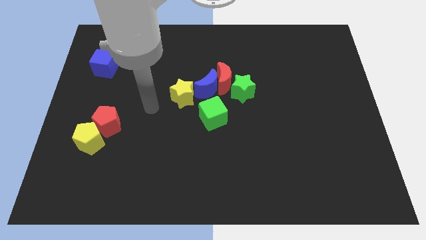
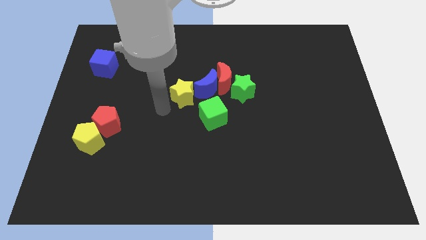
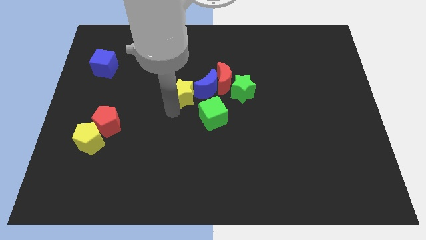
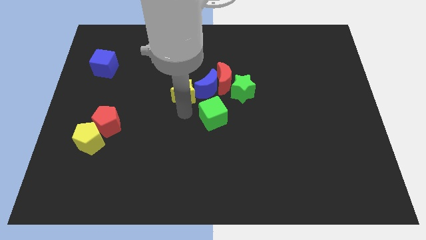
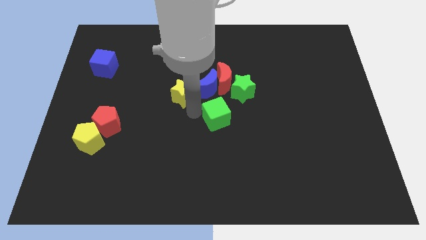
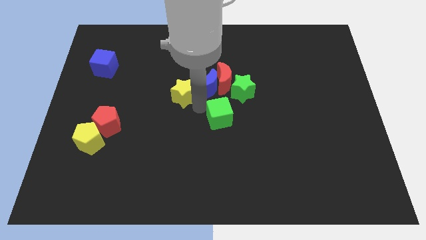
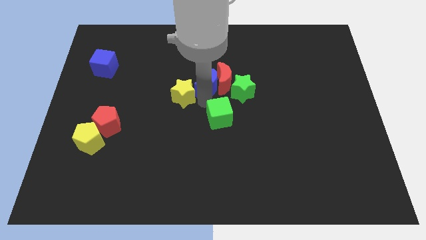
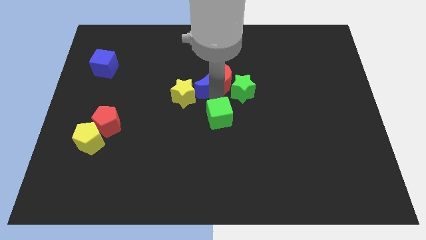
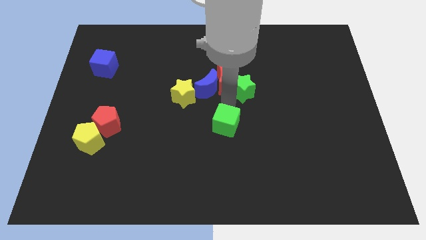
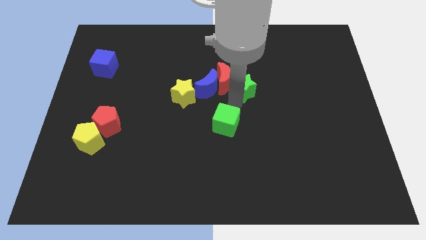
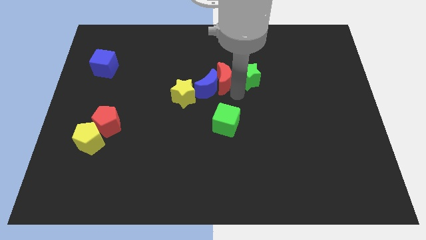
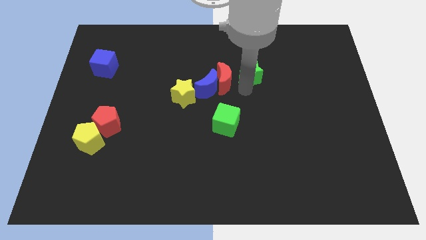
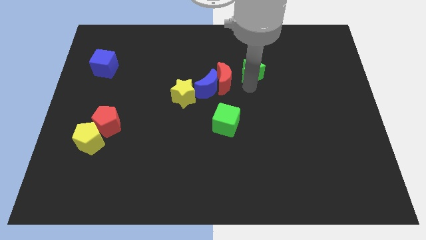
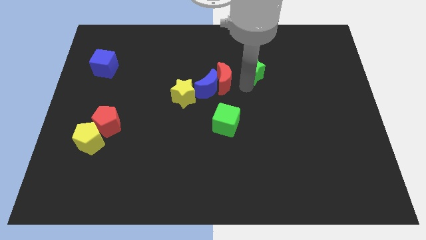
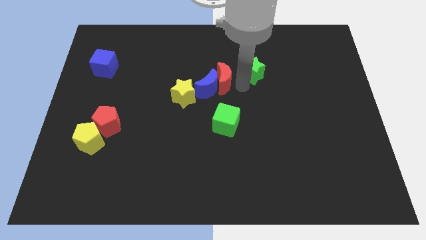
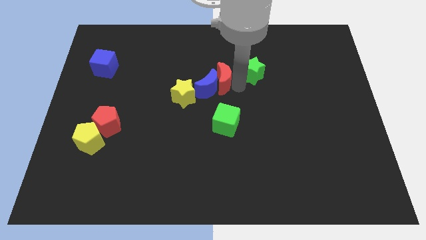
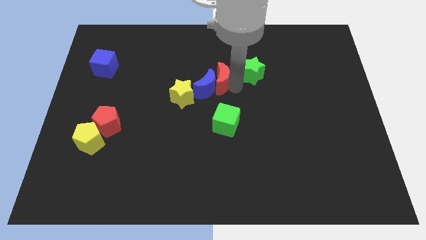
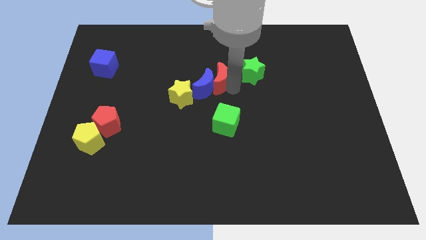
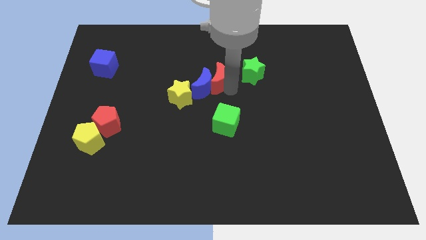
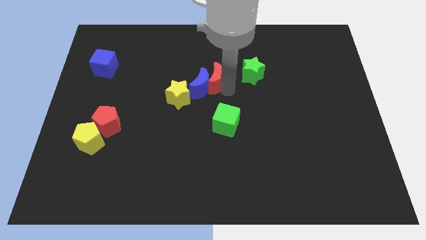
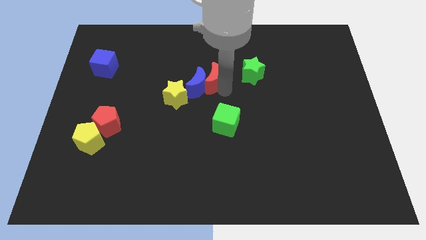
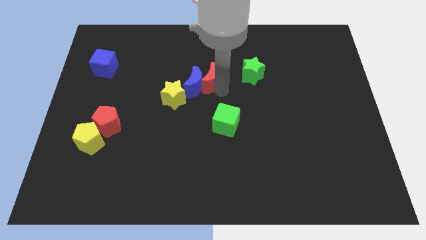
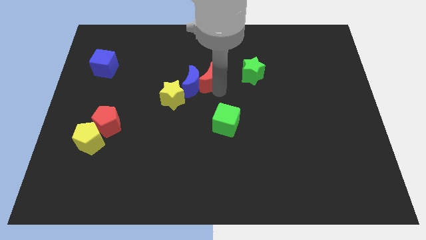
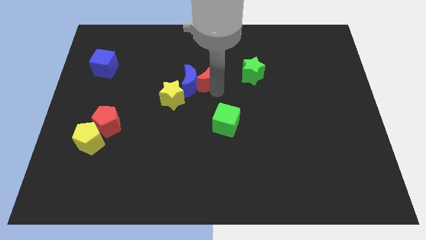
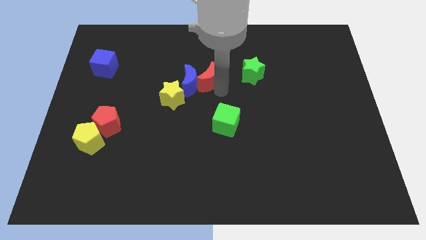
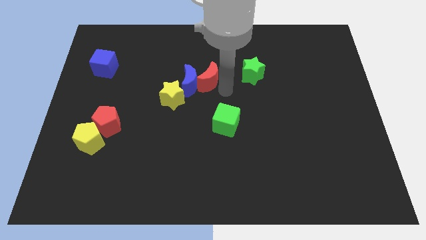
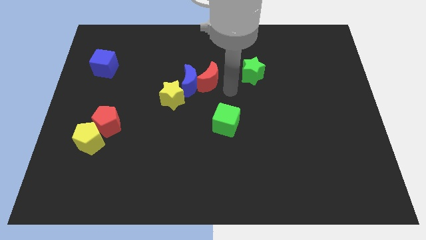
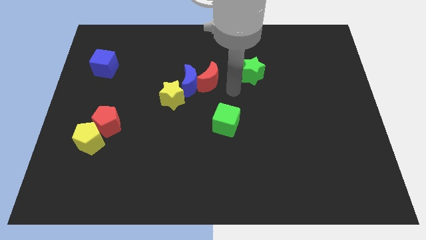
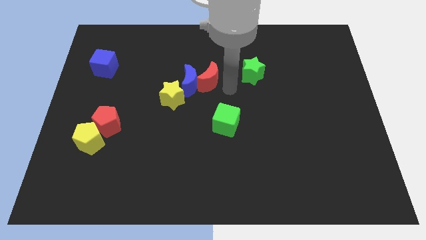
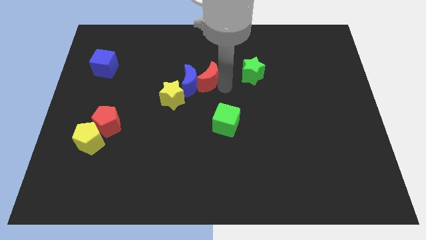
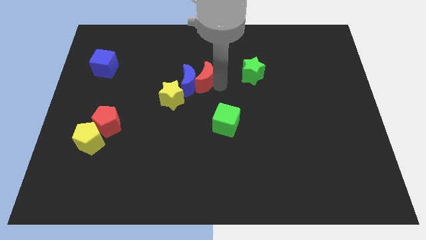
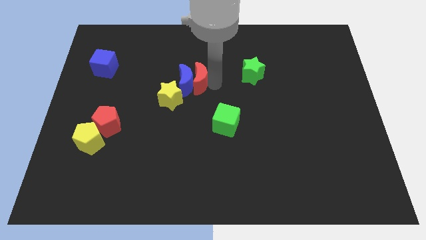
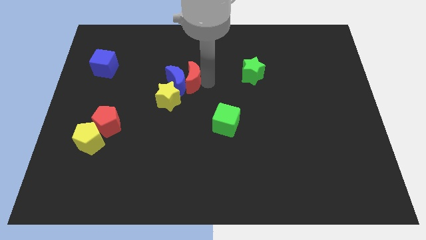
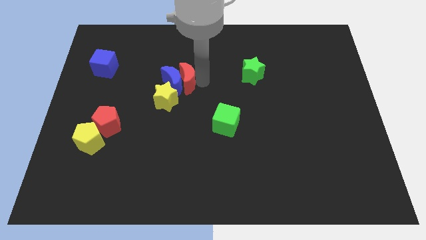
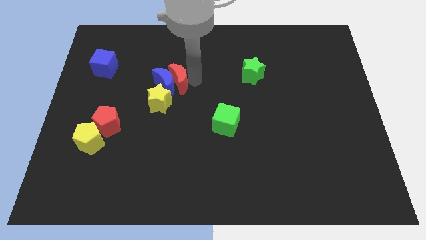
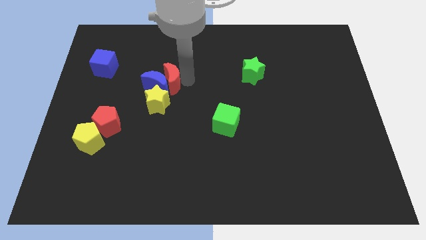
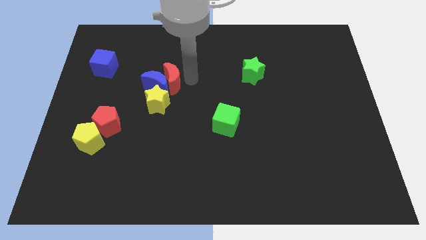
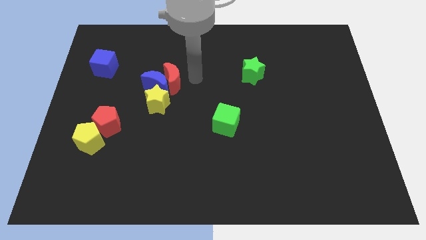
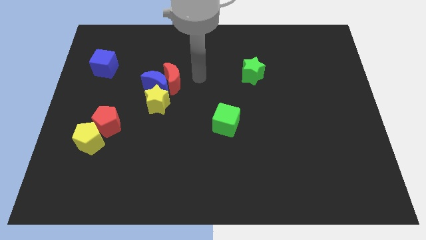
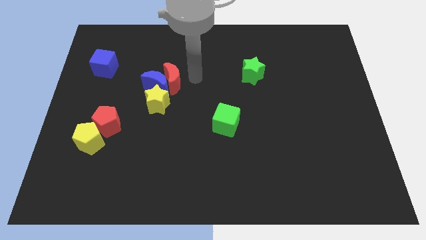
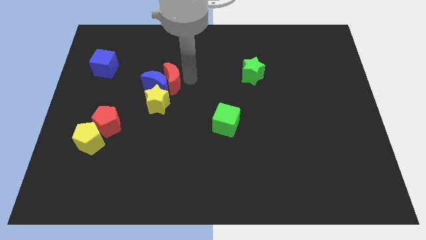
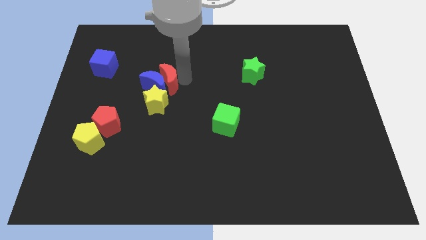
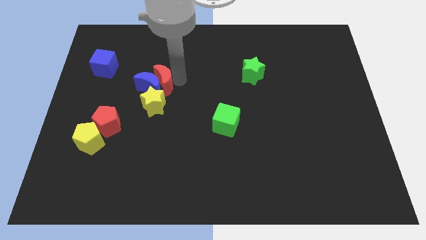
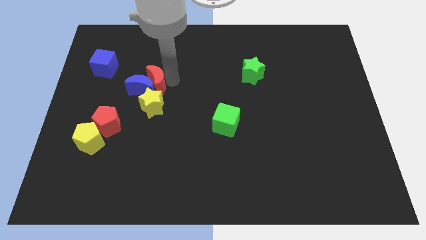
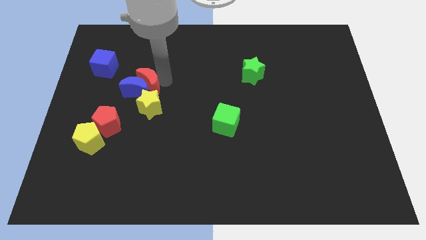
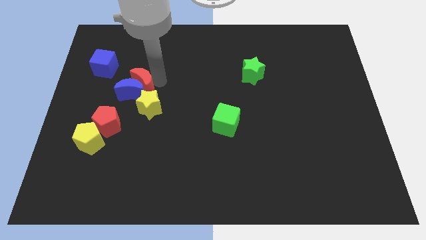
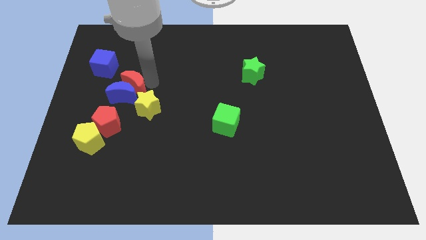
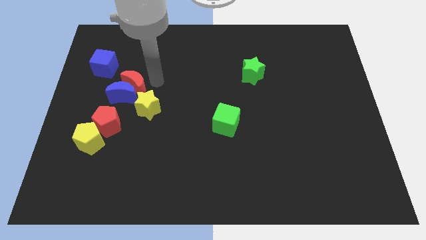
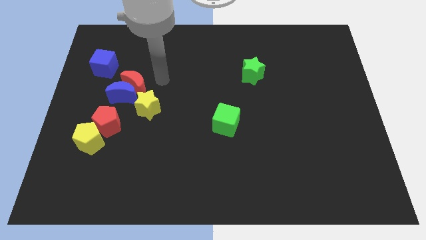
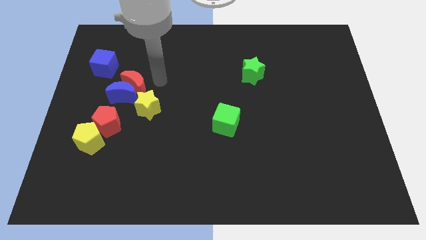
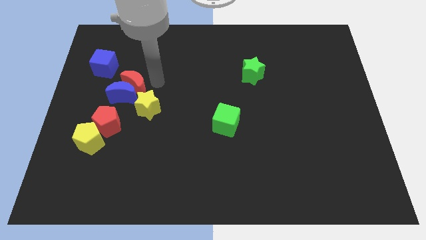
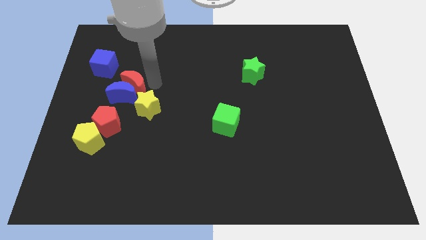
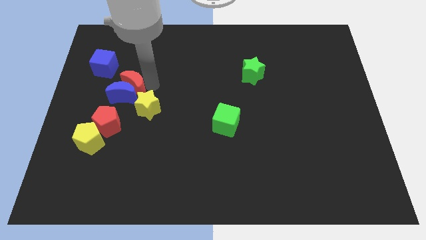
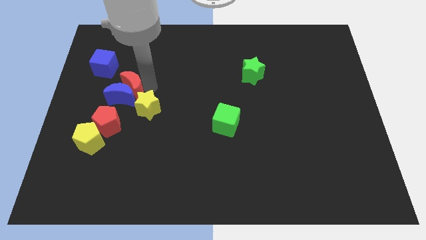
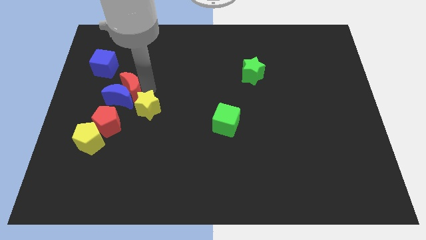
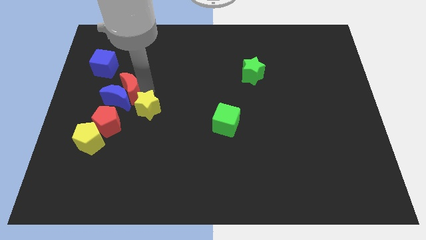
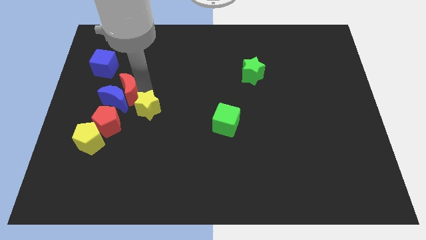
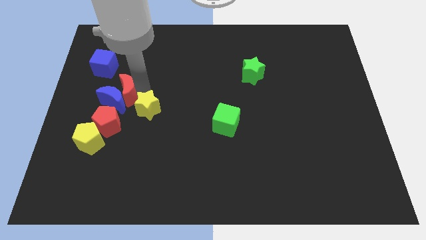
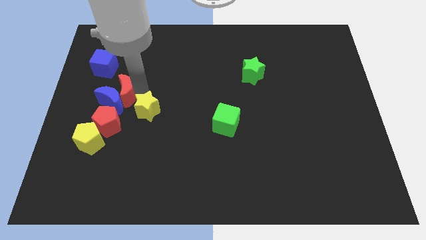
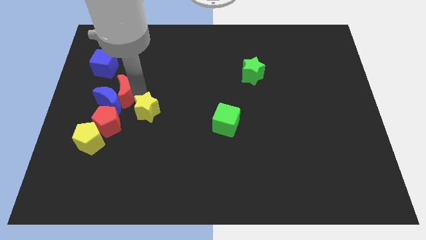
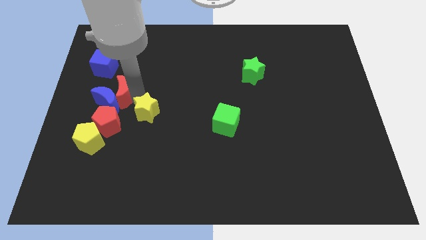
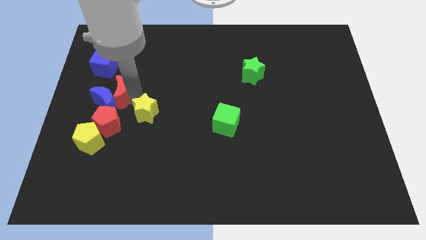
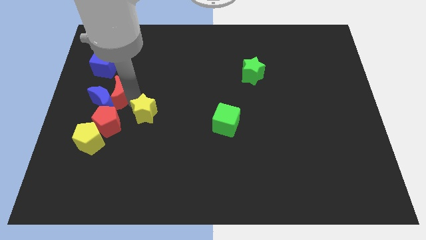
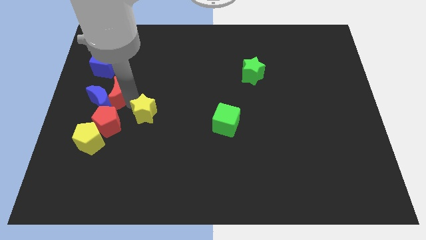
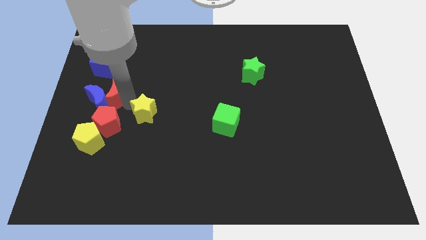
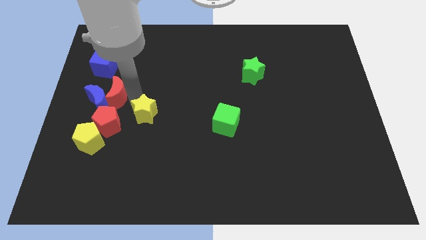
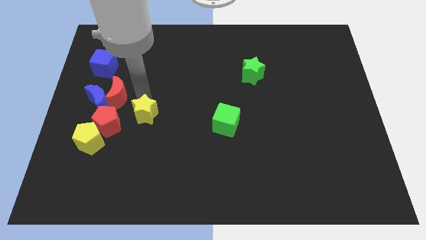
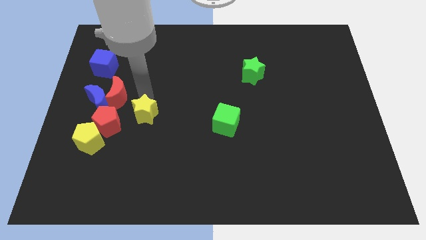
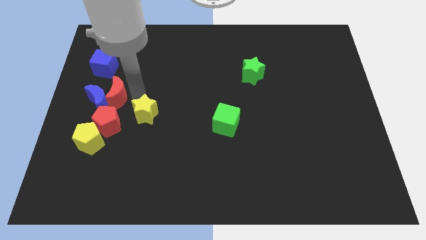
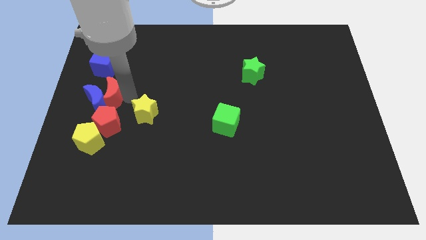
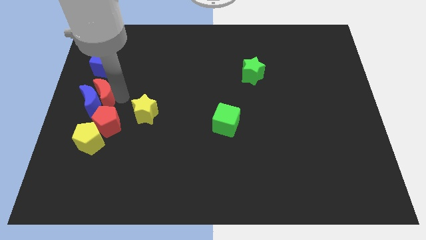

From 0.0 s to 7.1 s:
slide the red moon to the center left
